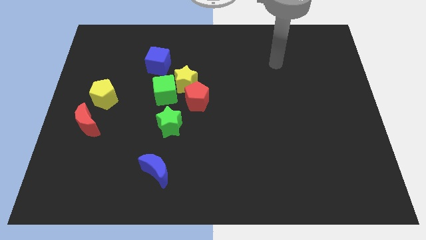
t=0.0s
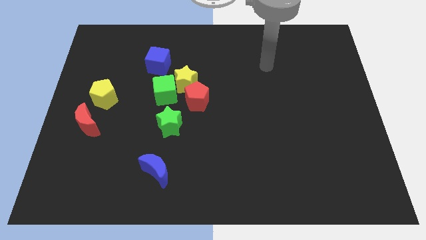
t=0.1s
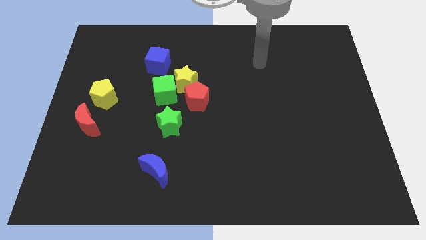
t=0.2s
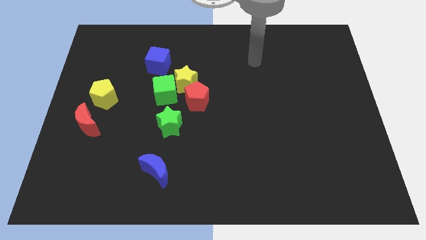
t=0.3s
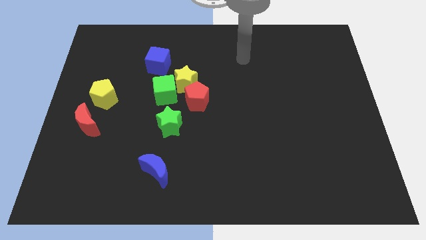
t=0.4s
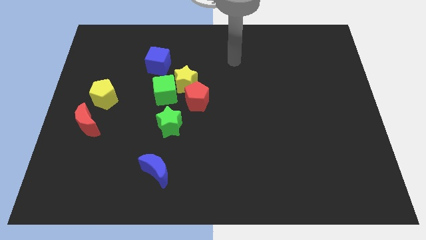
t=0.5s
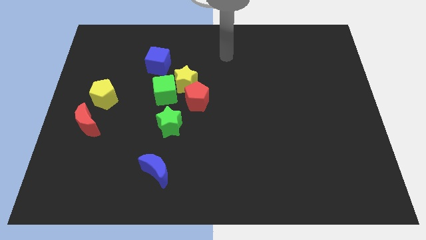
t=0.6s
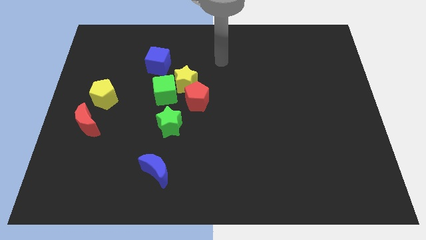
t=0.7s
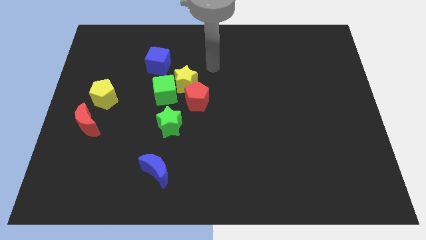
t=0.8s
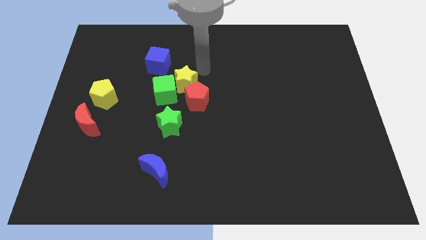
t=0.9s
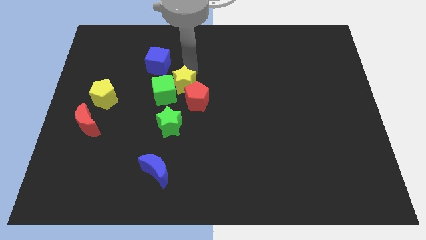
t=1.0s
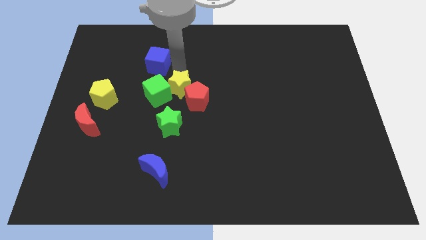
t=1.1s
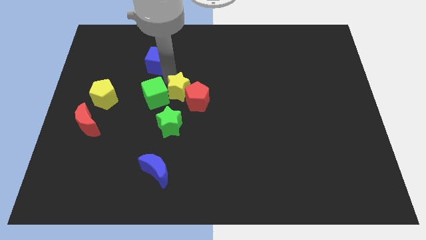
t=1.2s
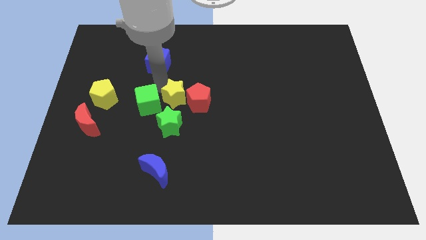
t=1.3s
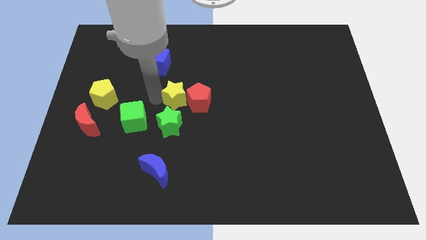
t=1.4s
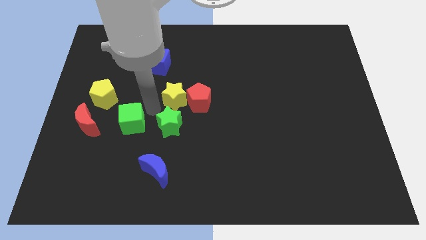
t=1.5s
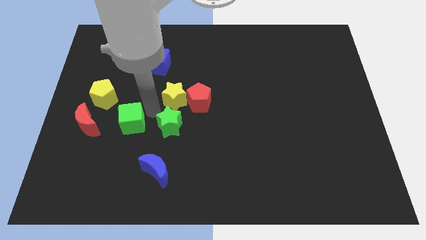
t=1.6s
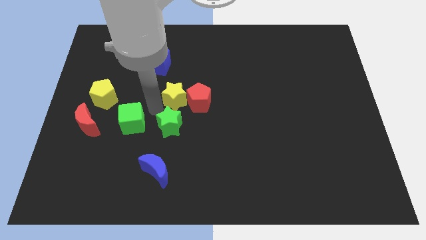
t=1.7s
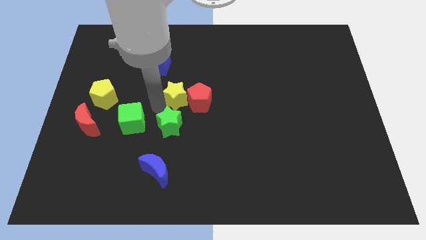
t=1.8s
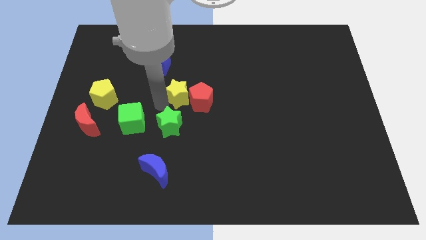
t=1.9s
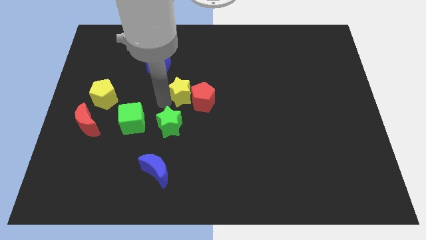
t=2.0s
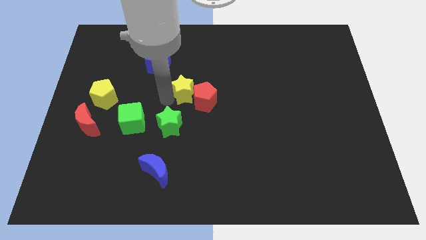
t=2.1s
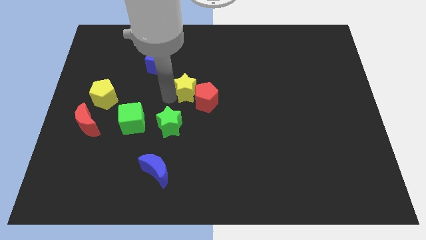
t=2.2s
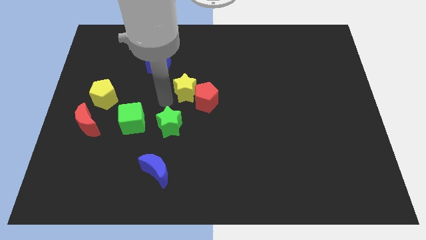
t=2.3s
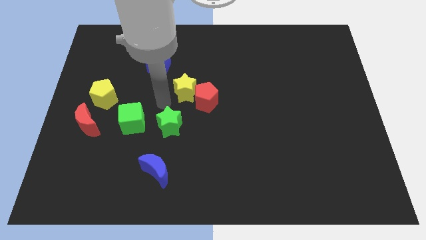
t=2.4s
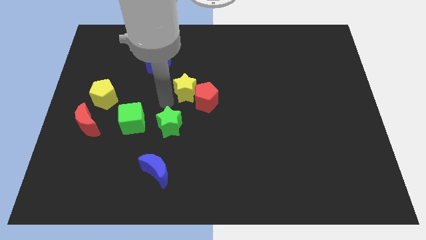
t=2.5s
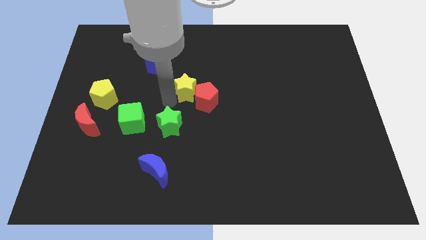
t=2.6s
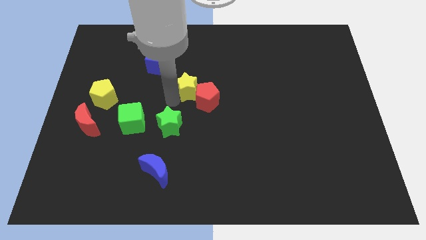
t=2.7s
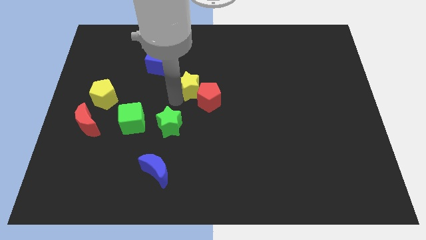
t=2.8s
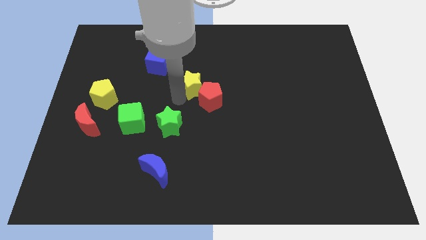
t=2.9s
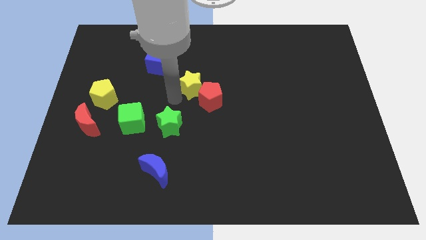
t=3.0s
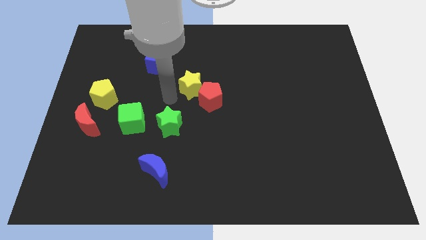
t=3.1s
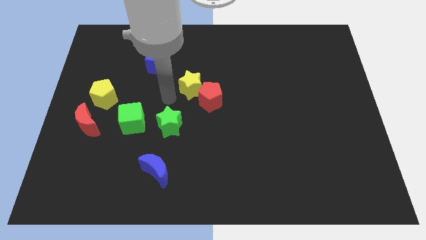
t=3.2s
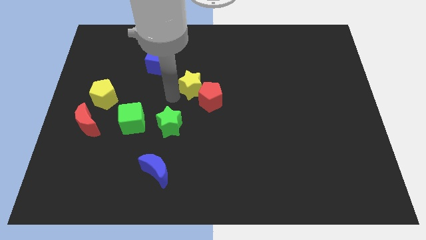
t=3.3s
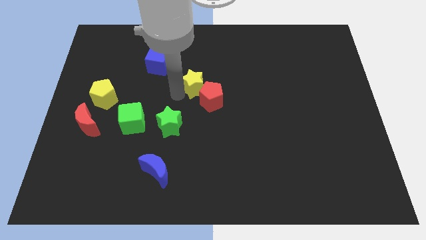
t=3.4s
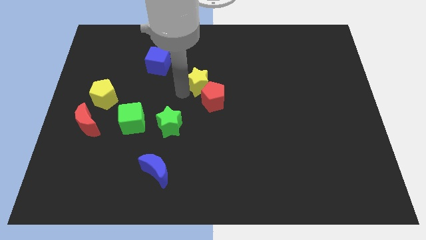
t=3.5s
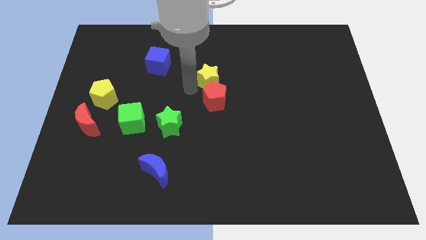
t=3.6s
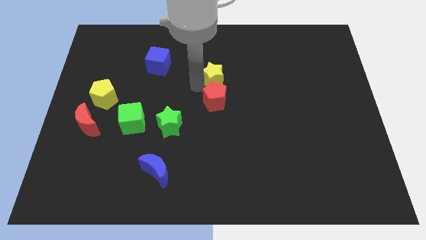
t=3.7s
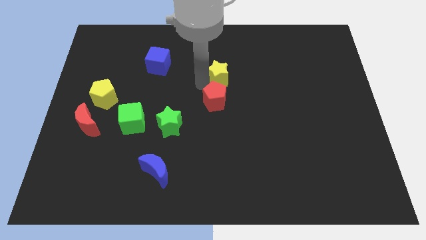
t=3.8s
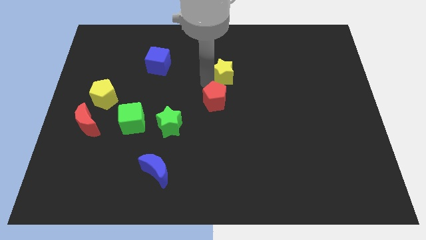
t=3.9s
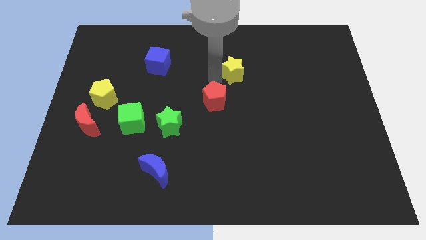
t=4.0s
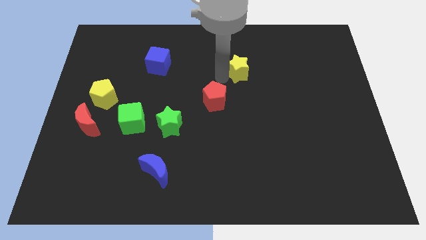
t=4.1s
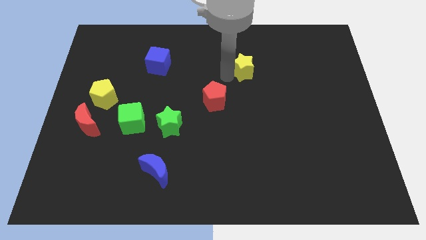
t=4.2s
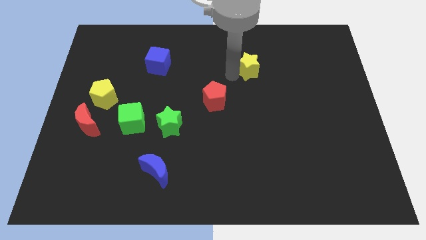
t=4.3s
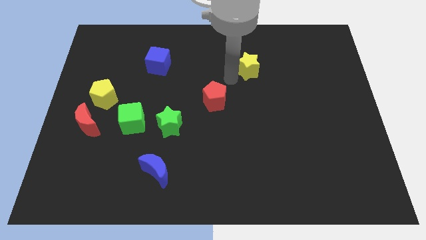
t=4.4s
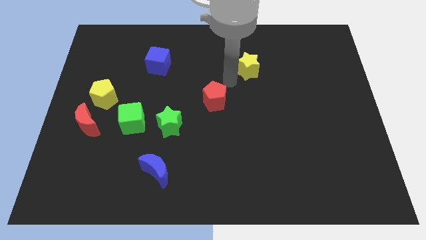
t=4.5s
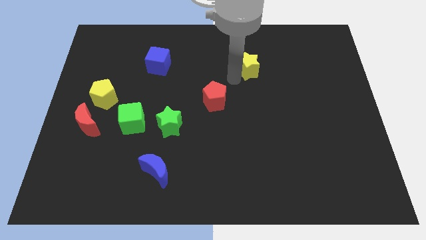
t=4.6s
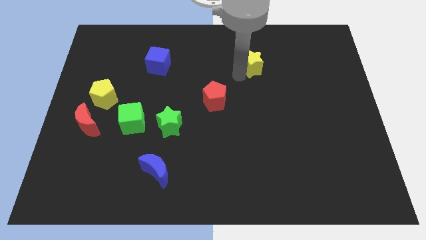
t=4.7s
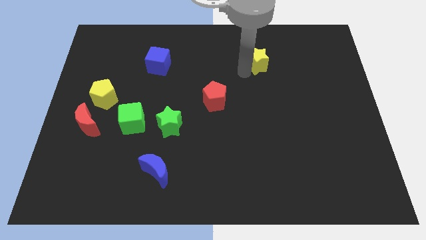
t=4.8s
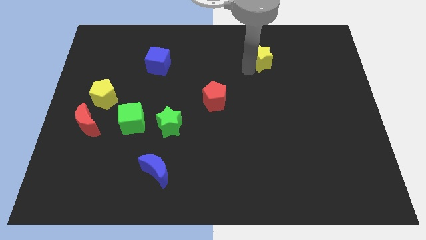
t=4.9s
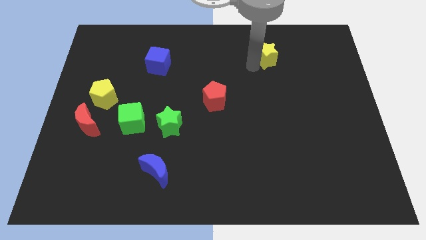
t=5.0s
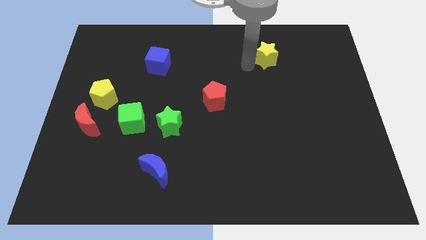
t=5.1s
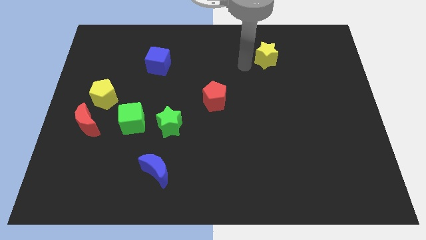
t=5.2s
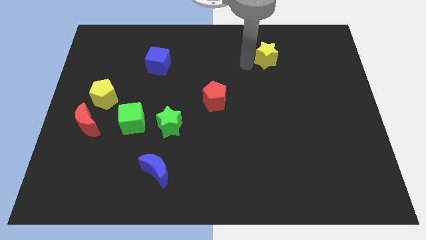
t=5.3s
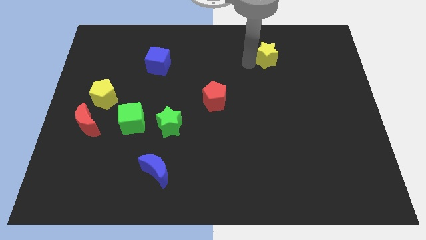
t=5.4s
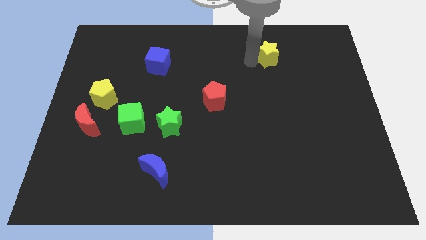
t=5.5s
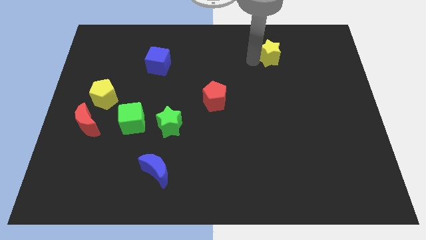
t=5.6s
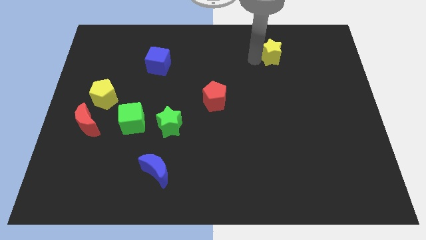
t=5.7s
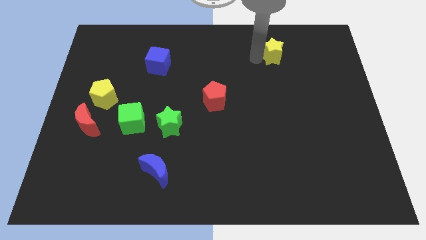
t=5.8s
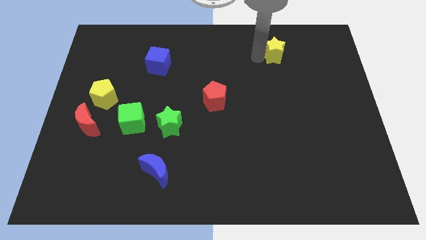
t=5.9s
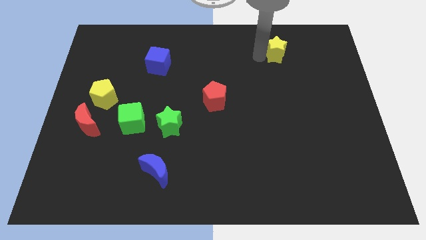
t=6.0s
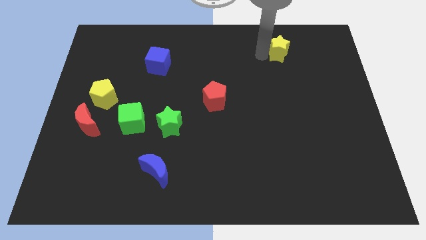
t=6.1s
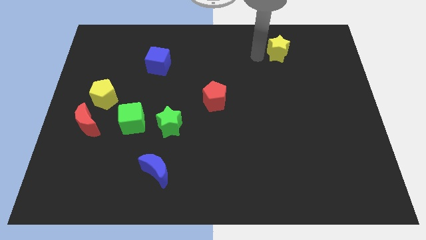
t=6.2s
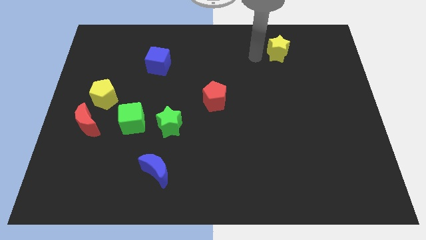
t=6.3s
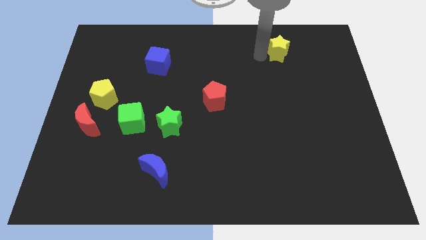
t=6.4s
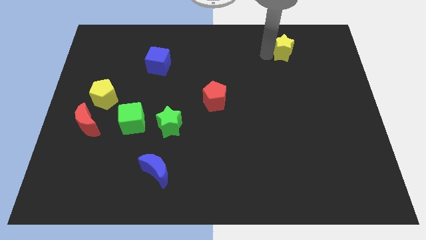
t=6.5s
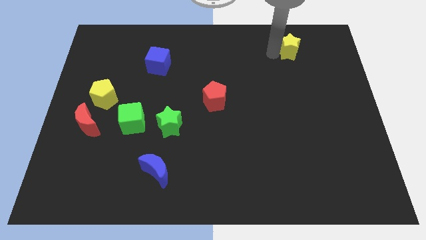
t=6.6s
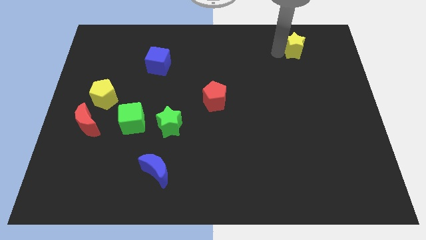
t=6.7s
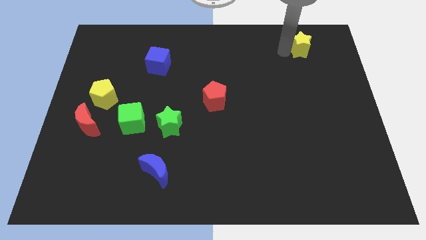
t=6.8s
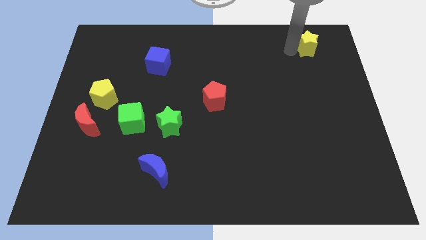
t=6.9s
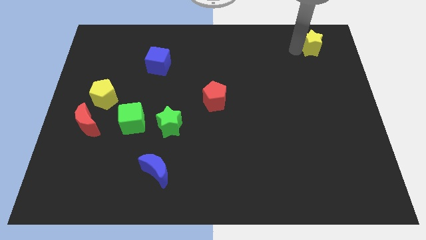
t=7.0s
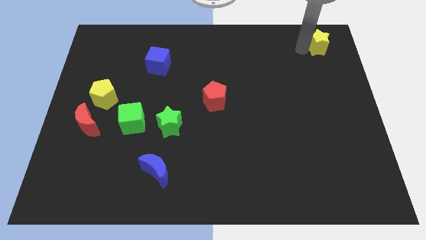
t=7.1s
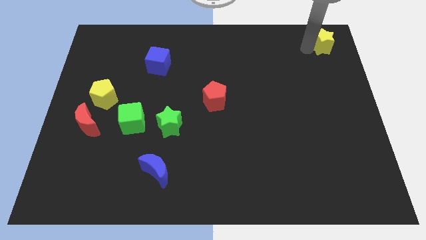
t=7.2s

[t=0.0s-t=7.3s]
slide the yellow star to the top right

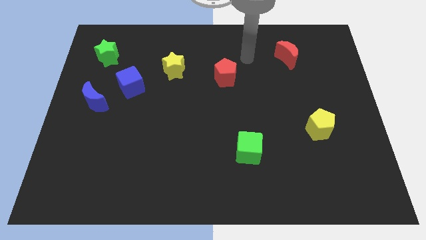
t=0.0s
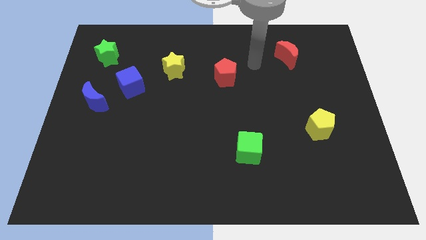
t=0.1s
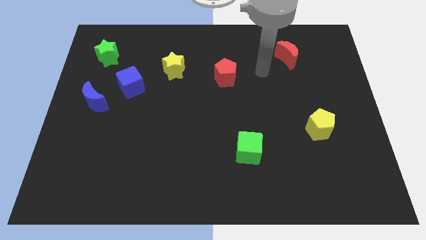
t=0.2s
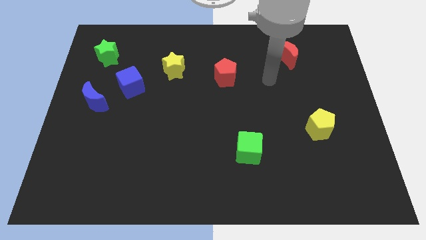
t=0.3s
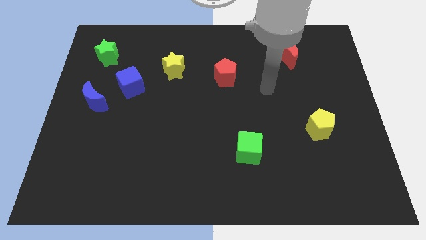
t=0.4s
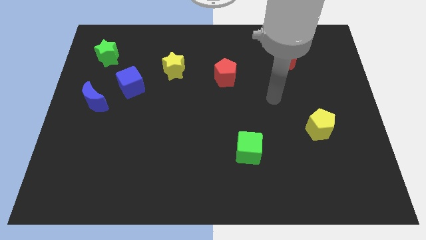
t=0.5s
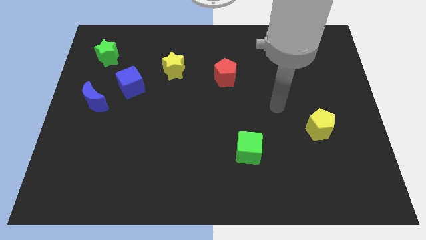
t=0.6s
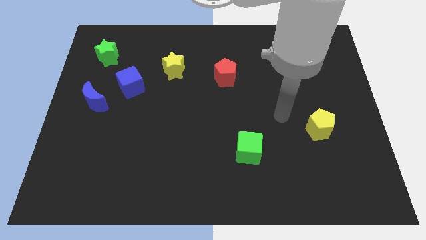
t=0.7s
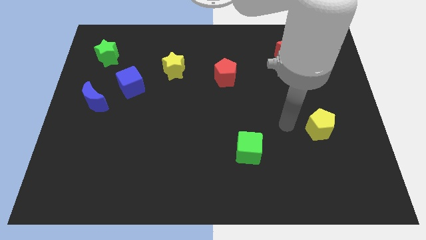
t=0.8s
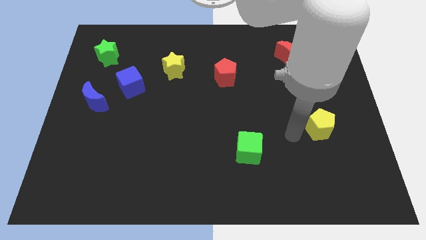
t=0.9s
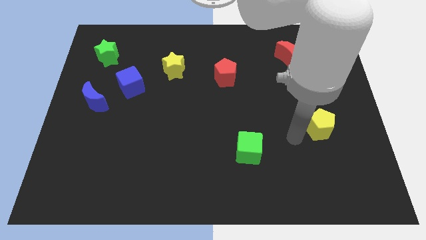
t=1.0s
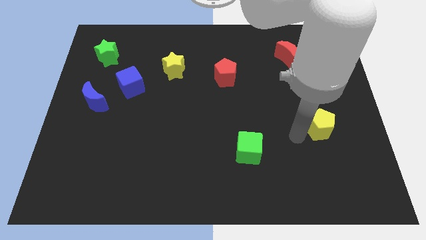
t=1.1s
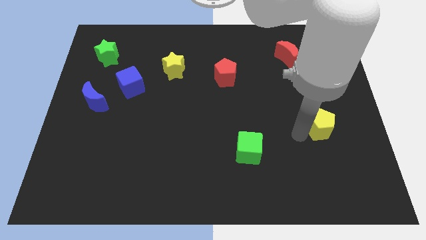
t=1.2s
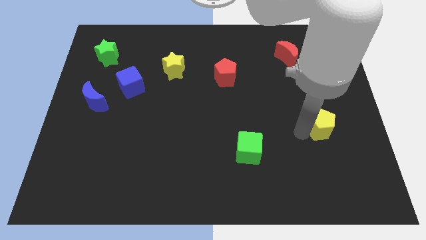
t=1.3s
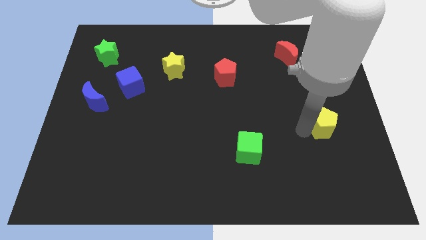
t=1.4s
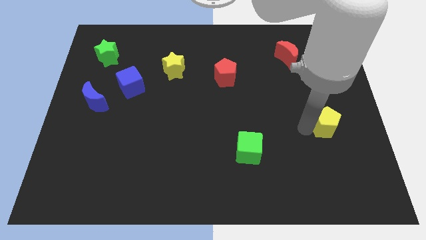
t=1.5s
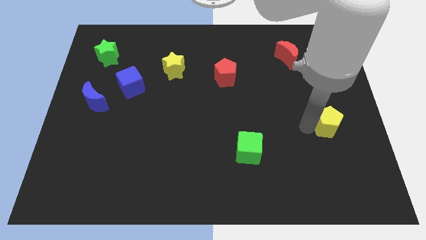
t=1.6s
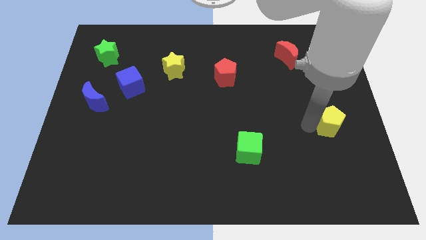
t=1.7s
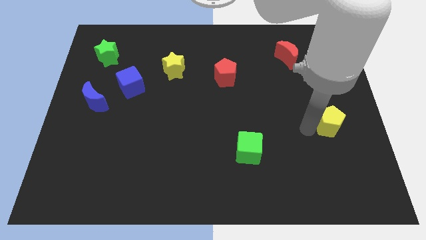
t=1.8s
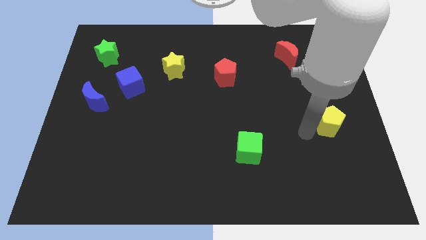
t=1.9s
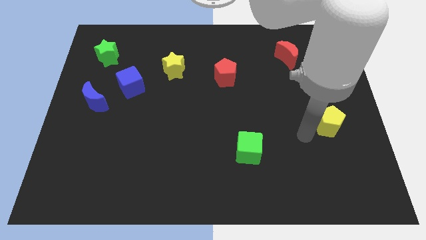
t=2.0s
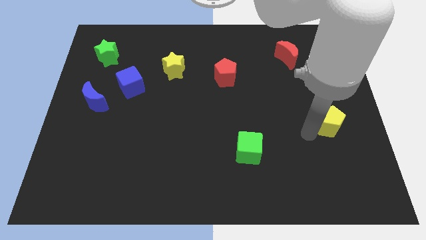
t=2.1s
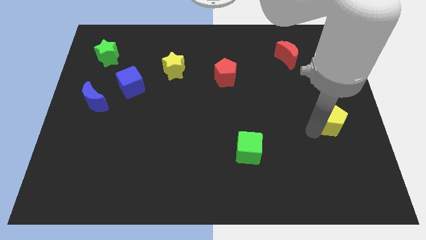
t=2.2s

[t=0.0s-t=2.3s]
slide the yellow pentagon to the right side
